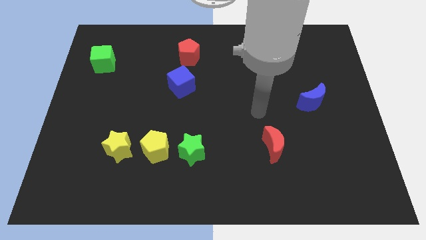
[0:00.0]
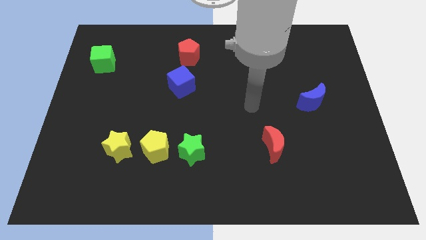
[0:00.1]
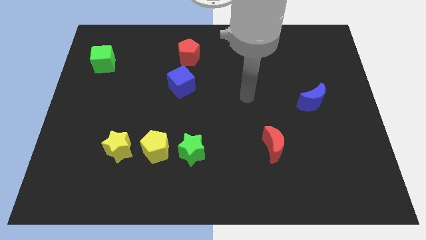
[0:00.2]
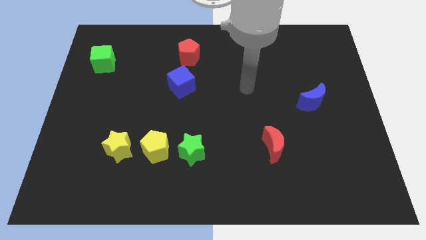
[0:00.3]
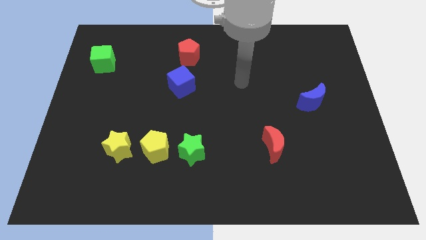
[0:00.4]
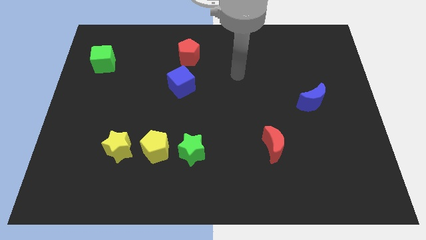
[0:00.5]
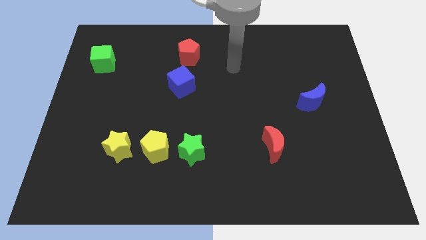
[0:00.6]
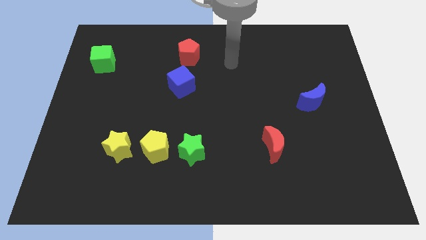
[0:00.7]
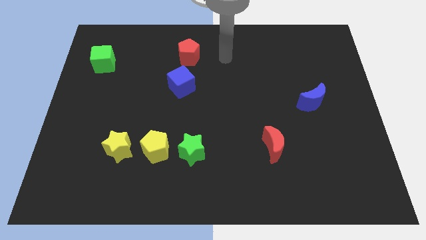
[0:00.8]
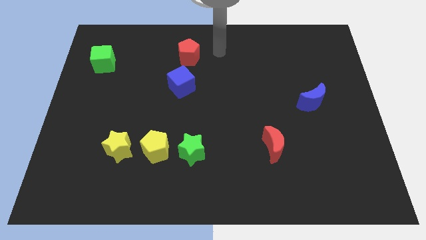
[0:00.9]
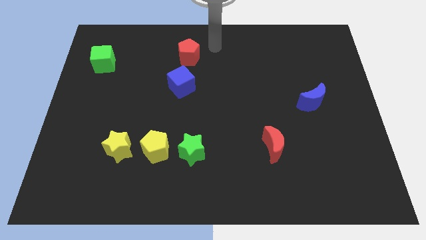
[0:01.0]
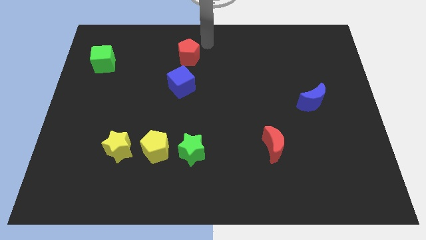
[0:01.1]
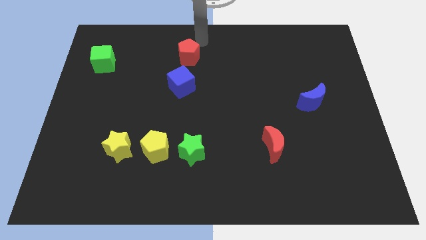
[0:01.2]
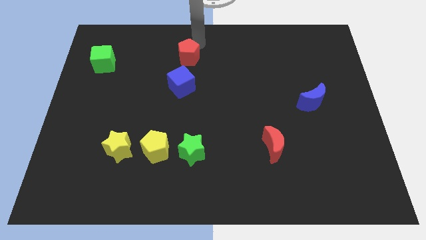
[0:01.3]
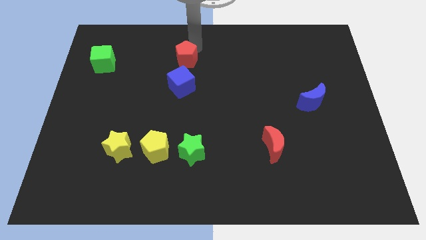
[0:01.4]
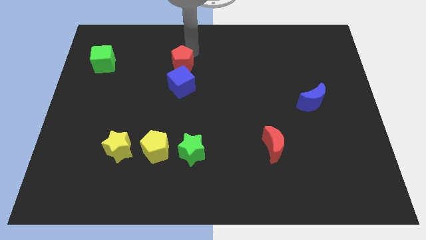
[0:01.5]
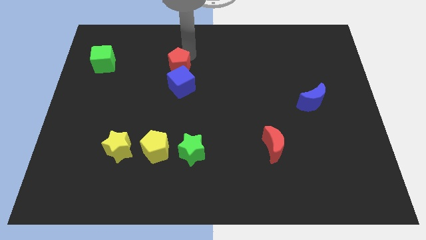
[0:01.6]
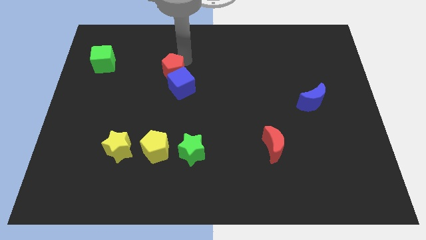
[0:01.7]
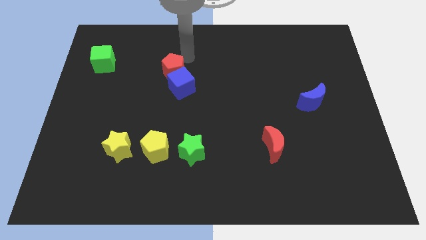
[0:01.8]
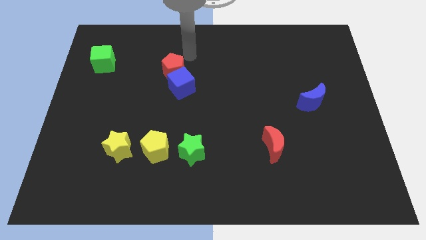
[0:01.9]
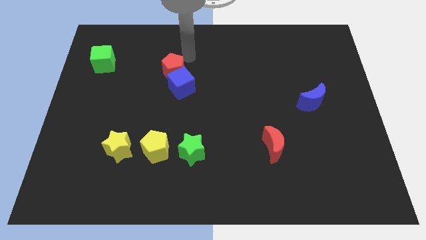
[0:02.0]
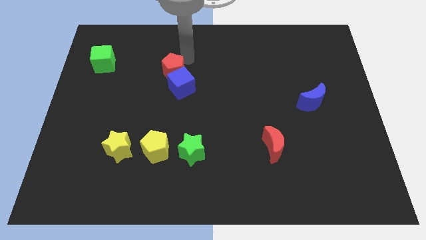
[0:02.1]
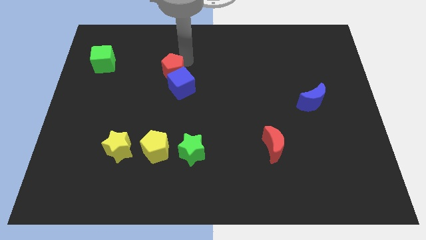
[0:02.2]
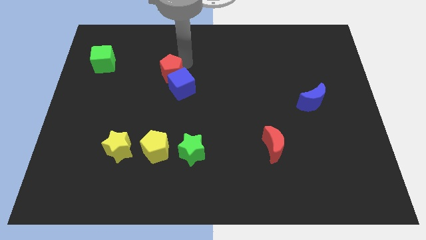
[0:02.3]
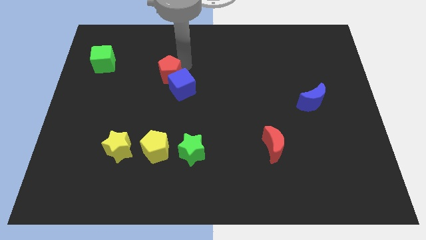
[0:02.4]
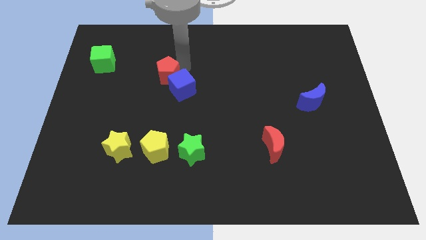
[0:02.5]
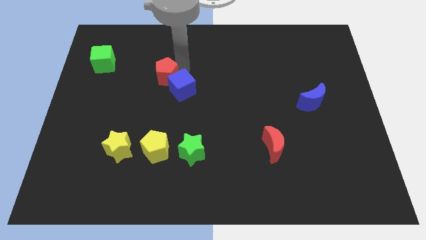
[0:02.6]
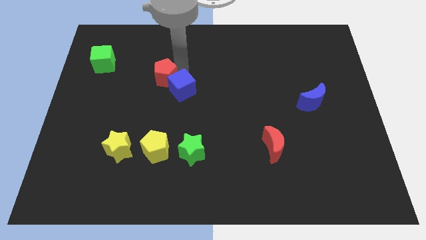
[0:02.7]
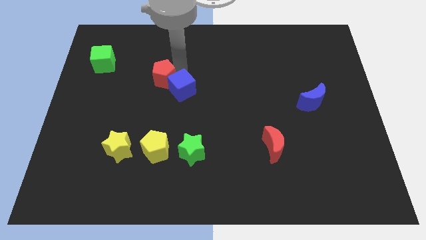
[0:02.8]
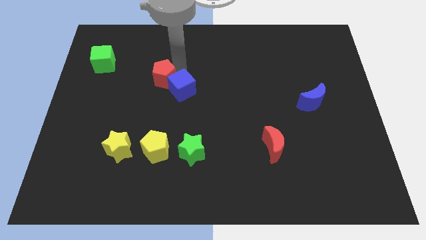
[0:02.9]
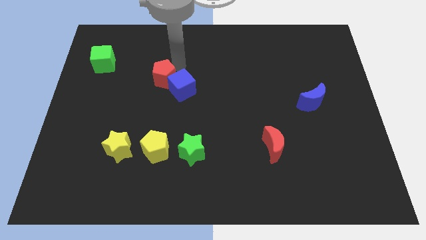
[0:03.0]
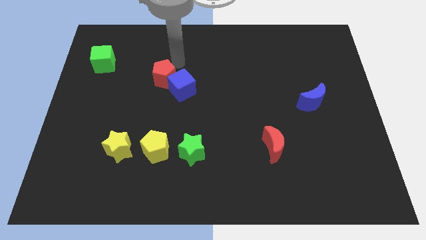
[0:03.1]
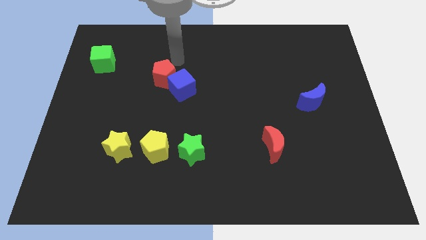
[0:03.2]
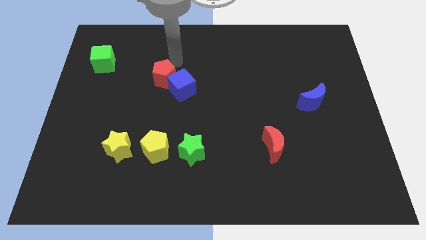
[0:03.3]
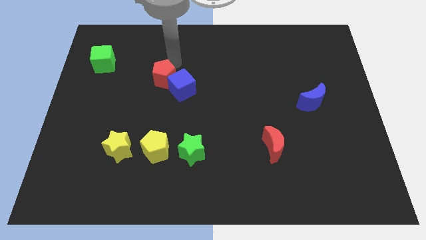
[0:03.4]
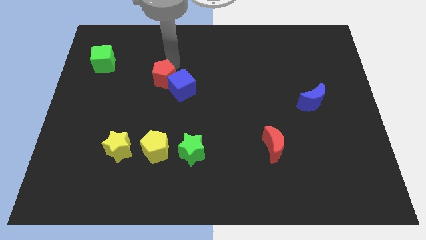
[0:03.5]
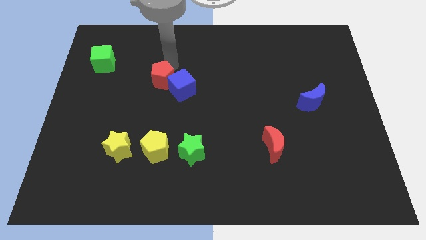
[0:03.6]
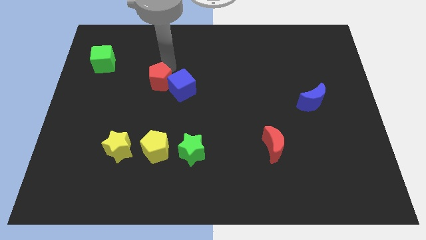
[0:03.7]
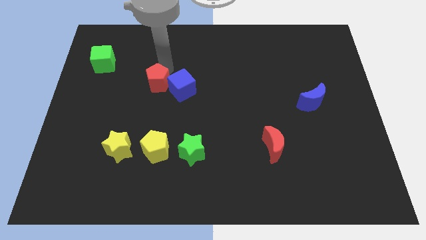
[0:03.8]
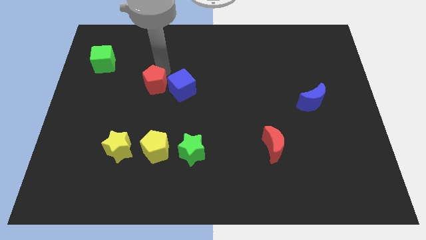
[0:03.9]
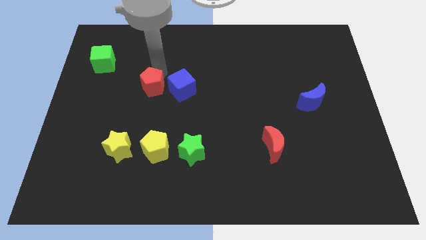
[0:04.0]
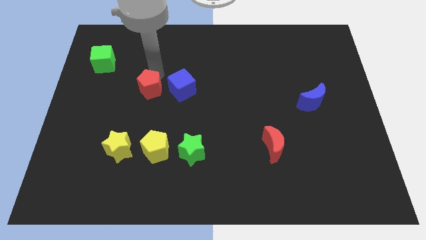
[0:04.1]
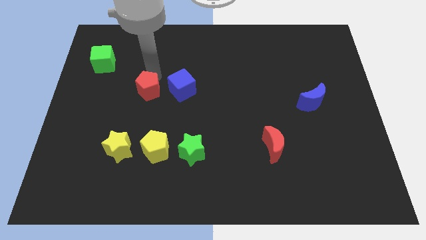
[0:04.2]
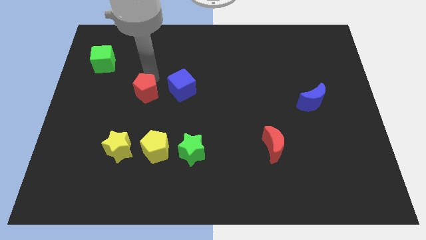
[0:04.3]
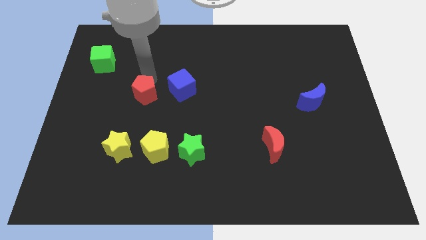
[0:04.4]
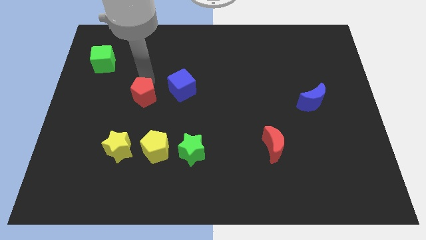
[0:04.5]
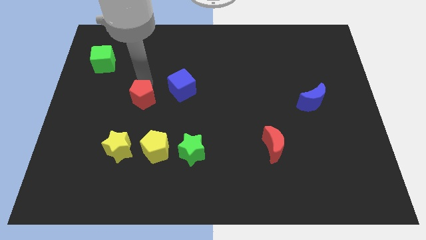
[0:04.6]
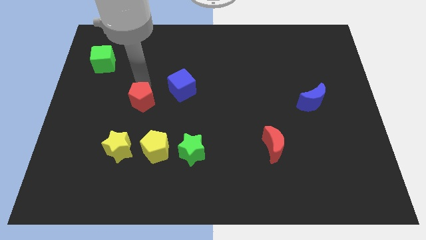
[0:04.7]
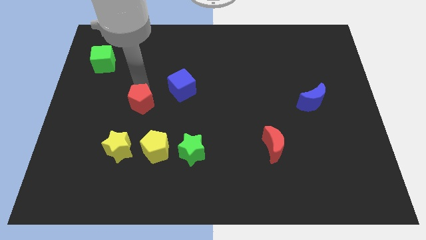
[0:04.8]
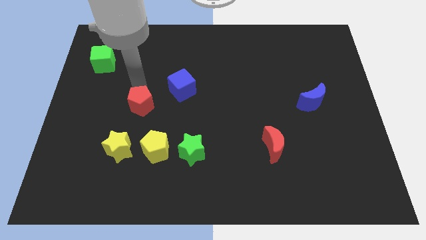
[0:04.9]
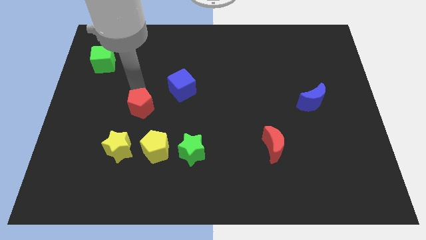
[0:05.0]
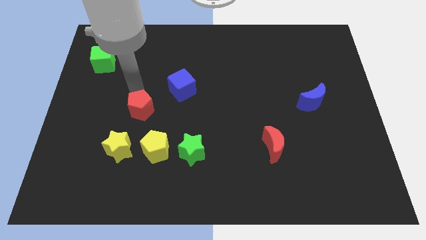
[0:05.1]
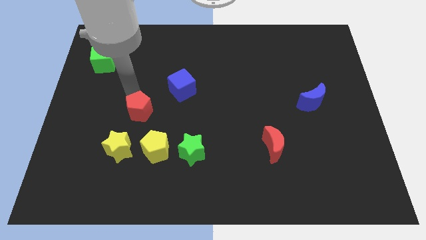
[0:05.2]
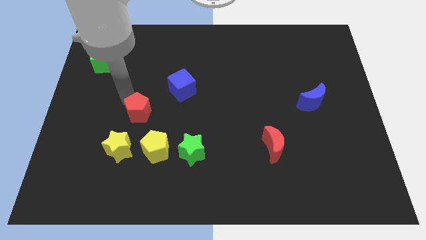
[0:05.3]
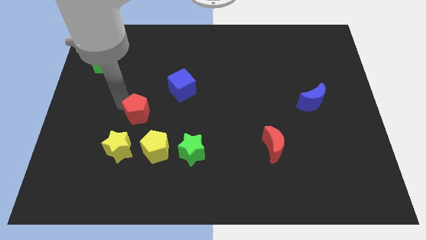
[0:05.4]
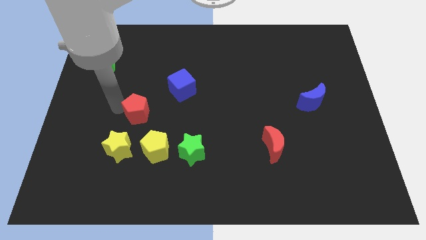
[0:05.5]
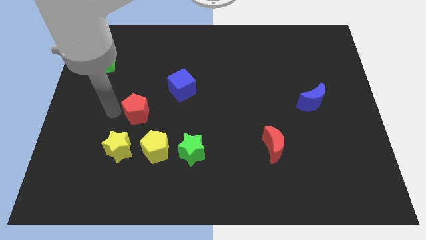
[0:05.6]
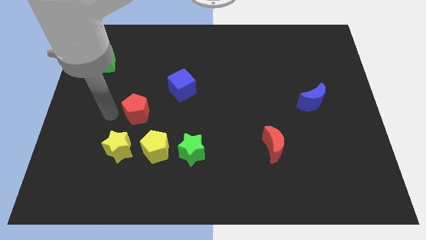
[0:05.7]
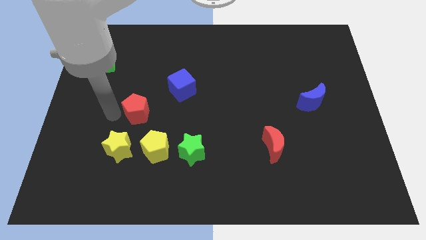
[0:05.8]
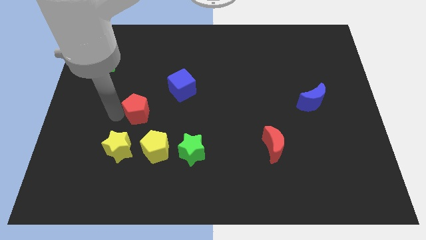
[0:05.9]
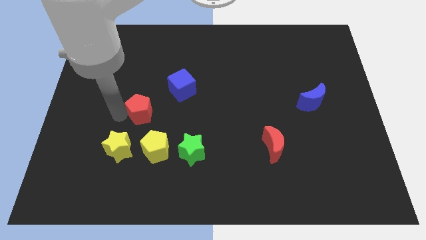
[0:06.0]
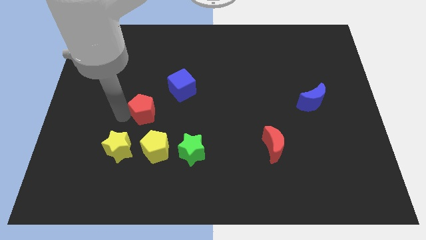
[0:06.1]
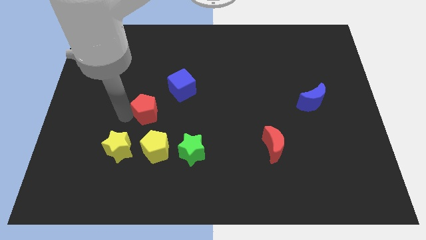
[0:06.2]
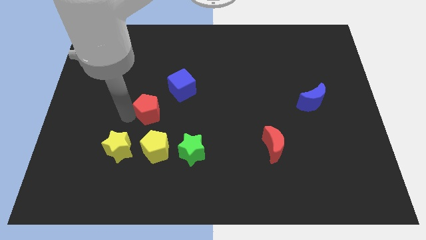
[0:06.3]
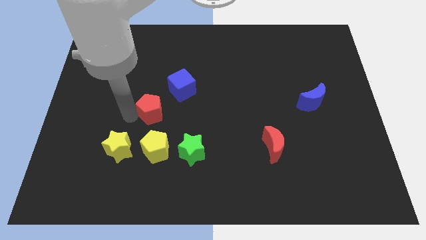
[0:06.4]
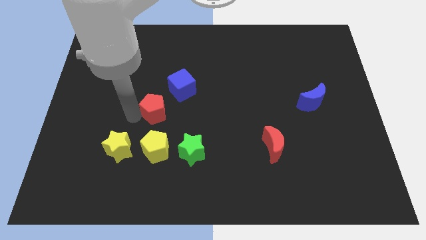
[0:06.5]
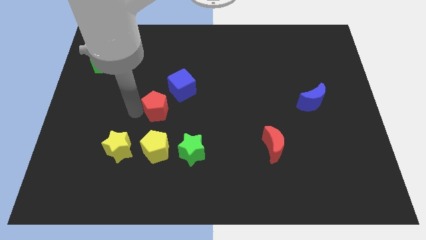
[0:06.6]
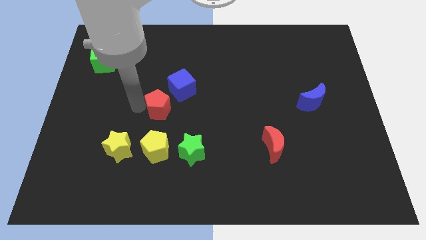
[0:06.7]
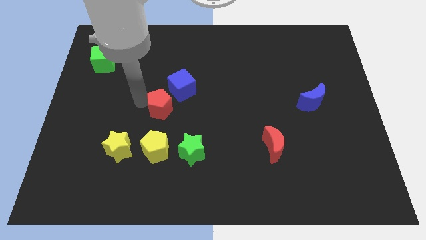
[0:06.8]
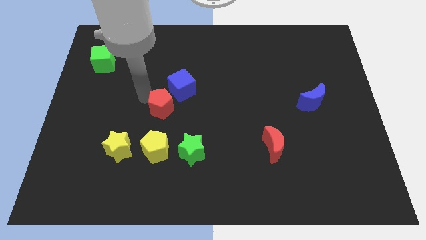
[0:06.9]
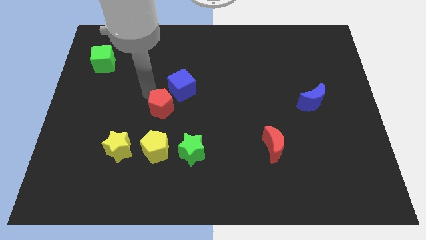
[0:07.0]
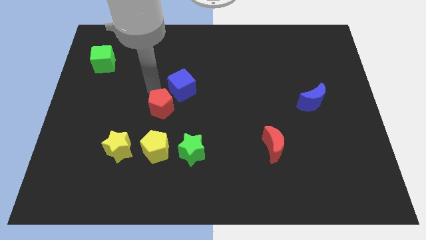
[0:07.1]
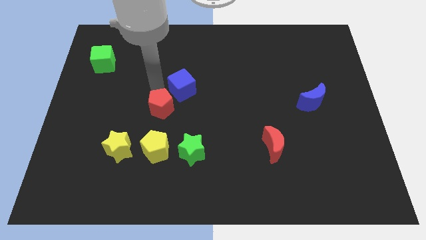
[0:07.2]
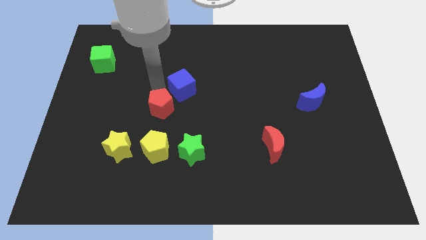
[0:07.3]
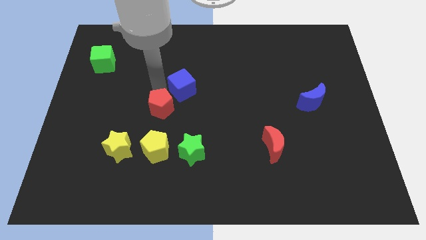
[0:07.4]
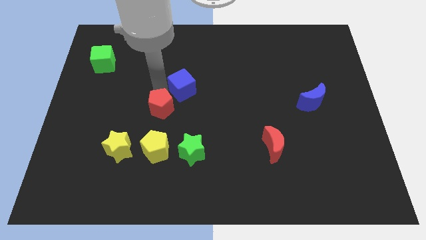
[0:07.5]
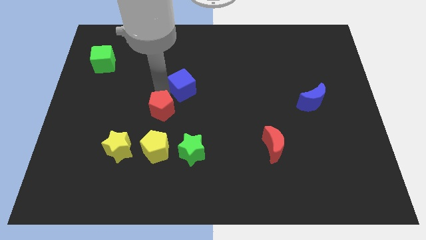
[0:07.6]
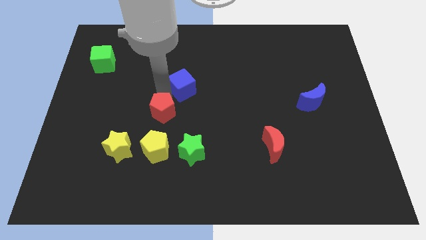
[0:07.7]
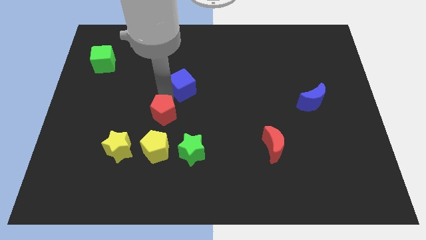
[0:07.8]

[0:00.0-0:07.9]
push the red pentagon to the top left side of the green star
